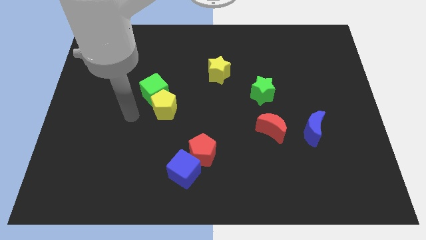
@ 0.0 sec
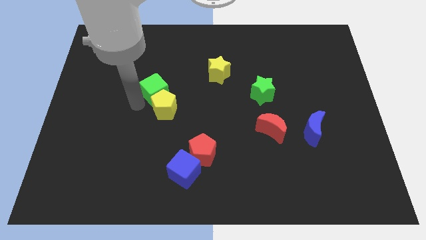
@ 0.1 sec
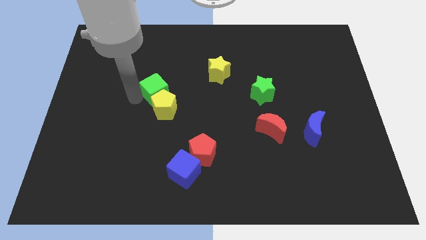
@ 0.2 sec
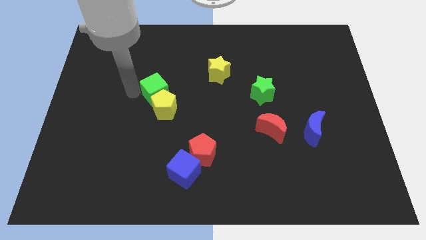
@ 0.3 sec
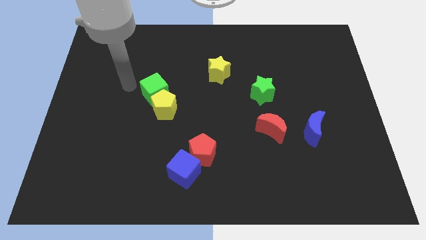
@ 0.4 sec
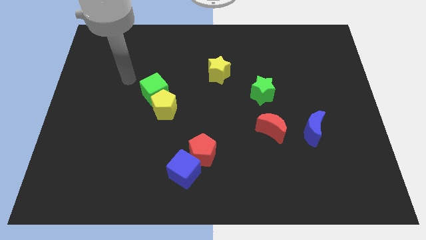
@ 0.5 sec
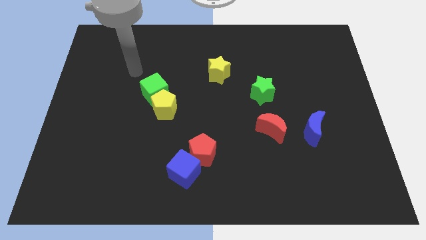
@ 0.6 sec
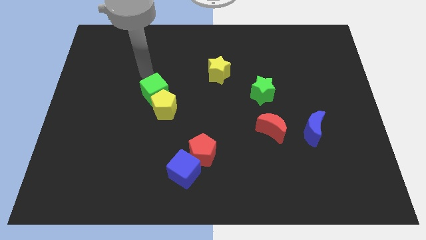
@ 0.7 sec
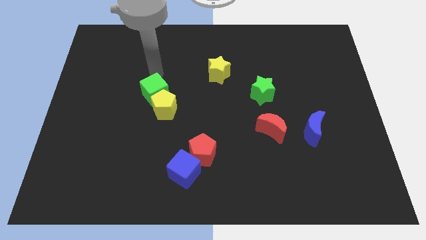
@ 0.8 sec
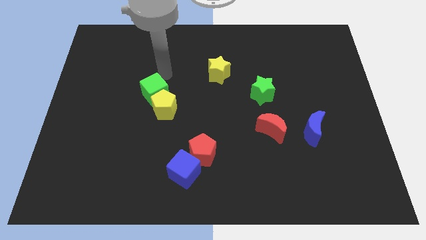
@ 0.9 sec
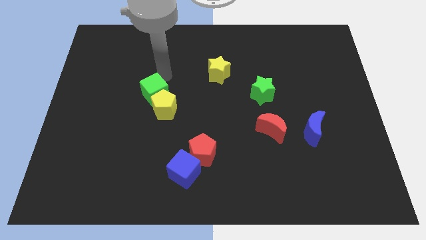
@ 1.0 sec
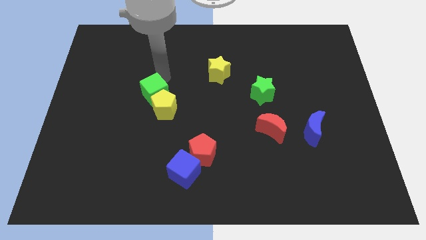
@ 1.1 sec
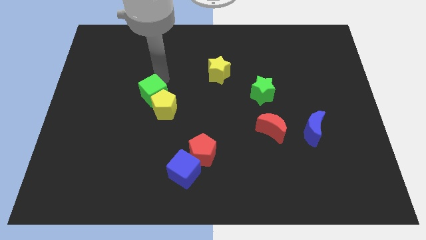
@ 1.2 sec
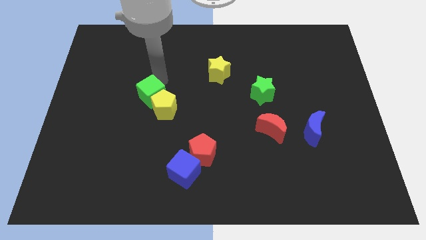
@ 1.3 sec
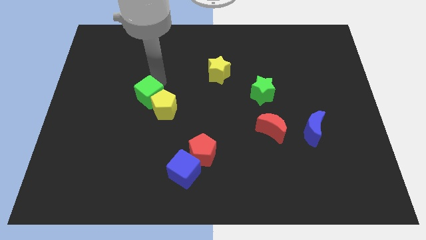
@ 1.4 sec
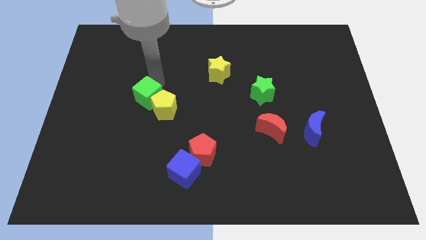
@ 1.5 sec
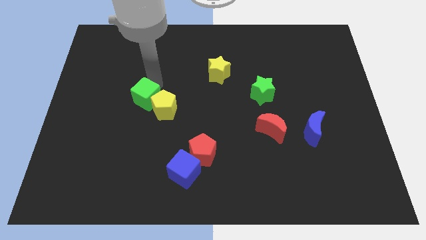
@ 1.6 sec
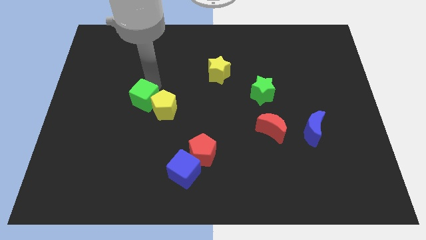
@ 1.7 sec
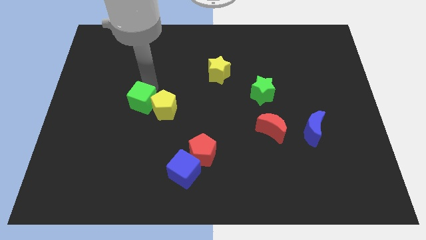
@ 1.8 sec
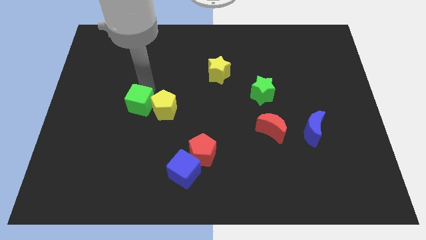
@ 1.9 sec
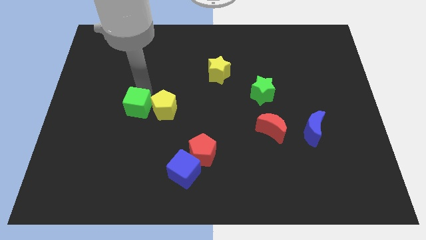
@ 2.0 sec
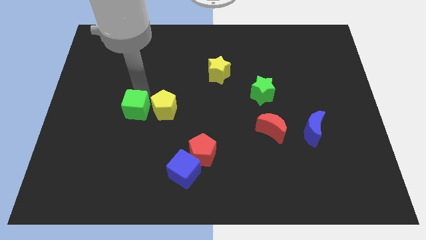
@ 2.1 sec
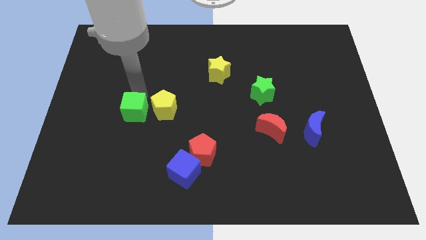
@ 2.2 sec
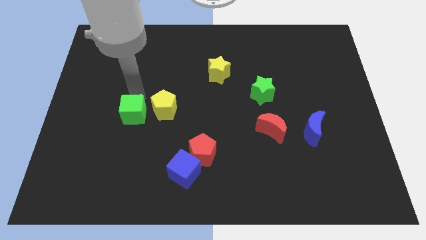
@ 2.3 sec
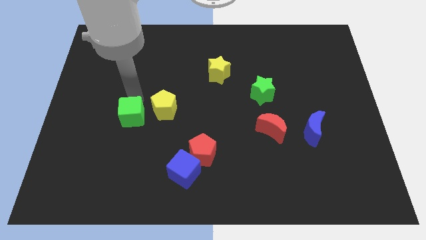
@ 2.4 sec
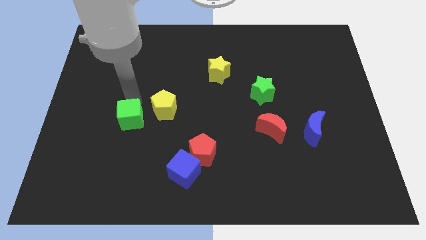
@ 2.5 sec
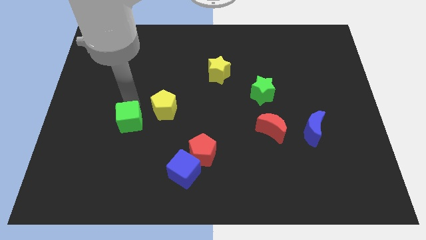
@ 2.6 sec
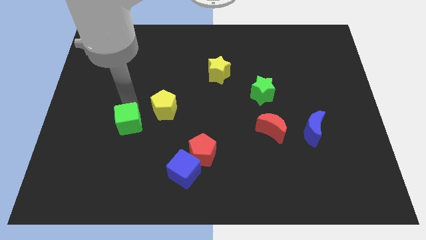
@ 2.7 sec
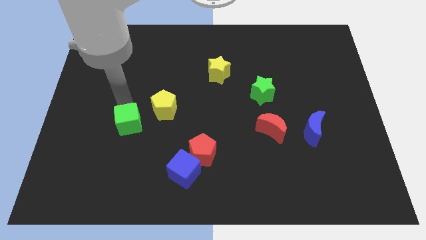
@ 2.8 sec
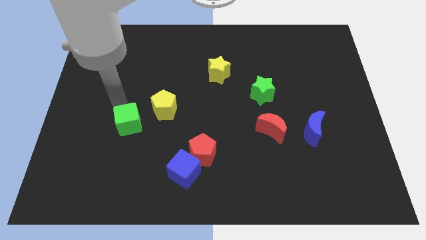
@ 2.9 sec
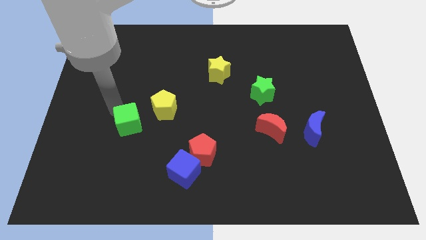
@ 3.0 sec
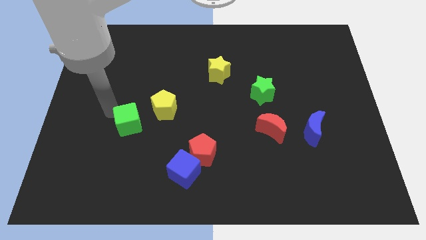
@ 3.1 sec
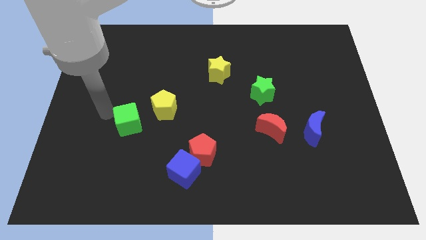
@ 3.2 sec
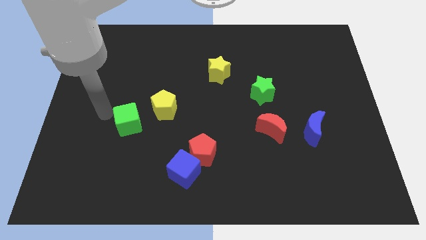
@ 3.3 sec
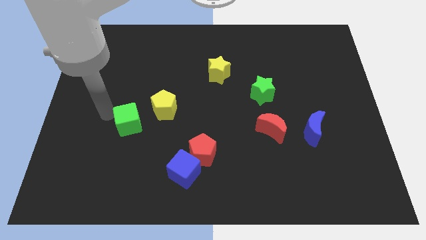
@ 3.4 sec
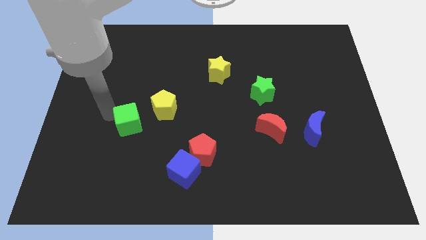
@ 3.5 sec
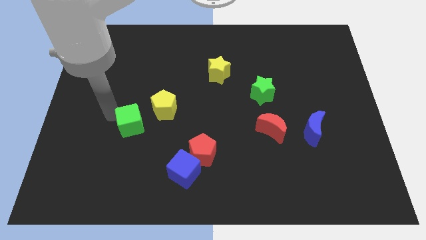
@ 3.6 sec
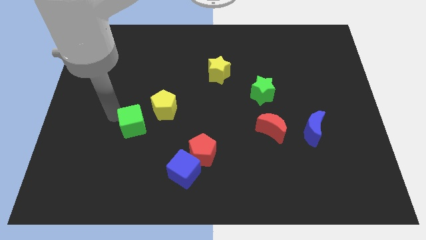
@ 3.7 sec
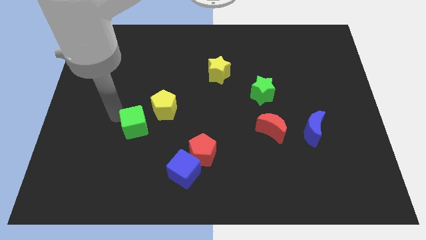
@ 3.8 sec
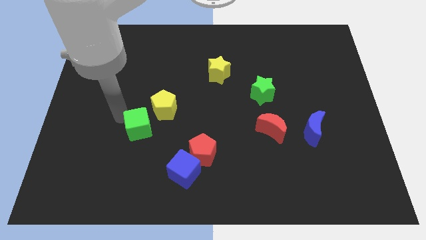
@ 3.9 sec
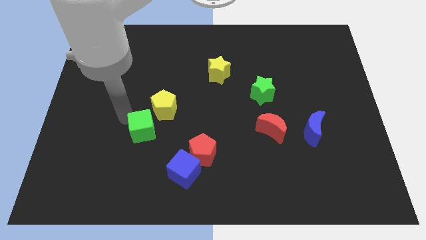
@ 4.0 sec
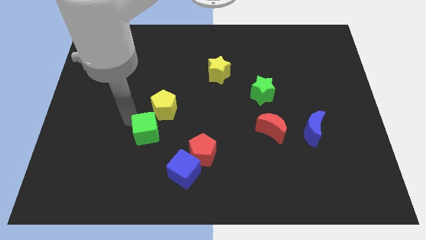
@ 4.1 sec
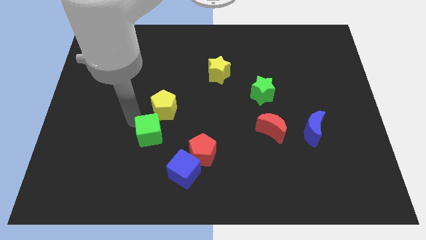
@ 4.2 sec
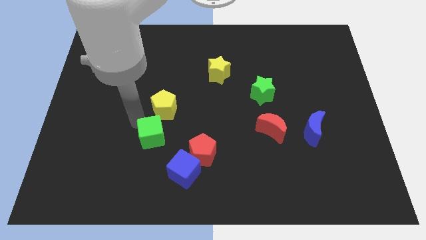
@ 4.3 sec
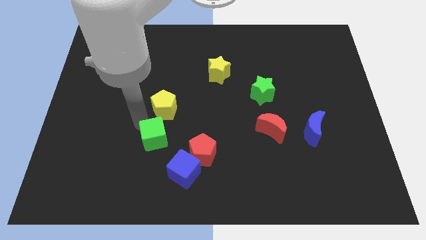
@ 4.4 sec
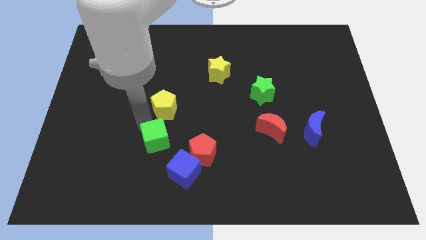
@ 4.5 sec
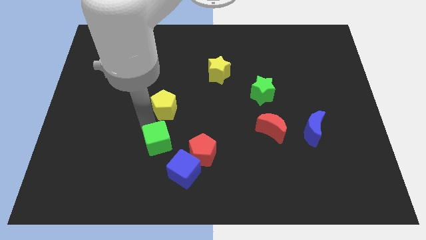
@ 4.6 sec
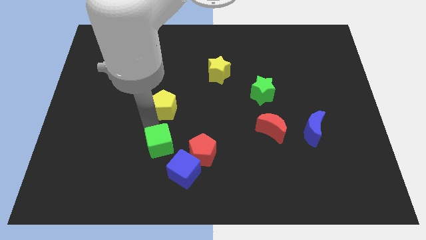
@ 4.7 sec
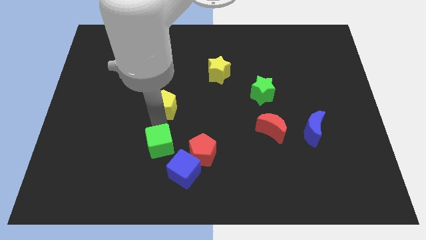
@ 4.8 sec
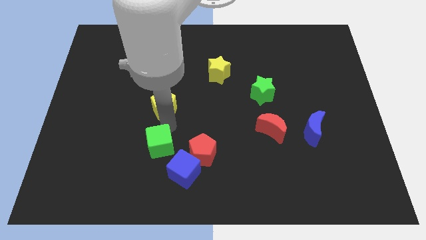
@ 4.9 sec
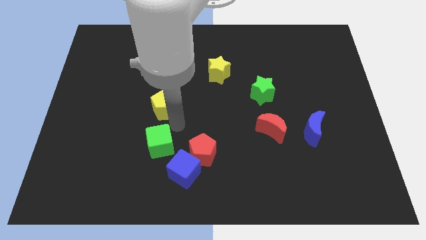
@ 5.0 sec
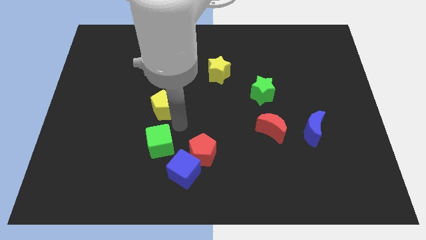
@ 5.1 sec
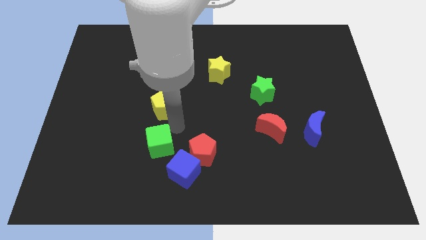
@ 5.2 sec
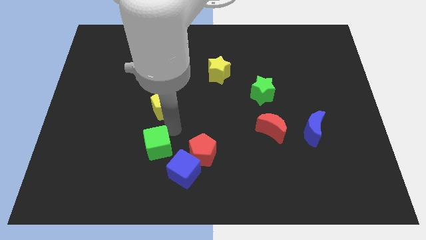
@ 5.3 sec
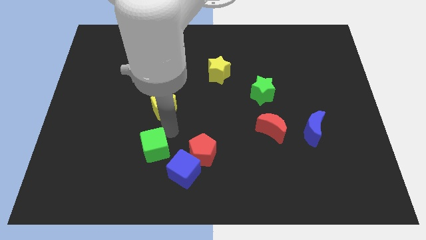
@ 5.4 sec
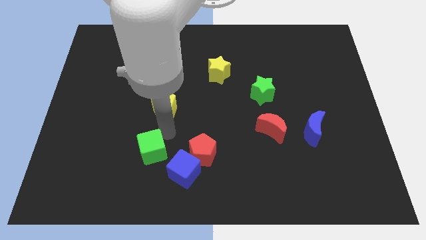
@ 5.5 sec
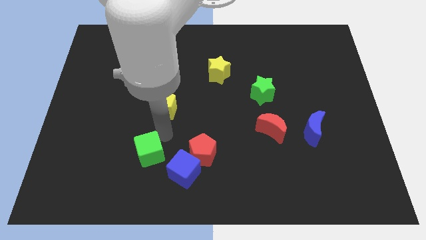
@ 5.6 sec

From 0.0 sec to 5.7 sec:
move the green cube just left of the blue cube

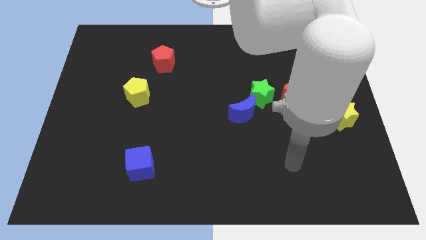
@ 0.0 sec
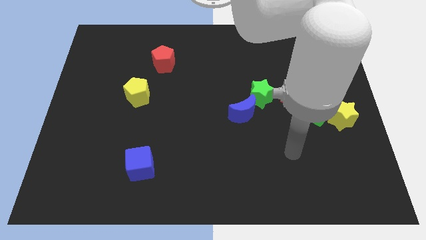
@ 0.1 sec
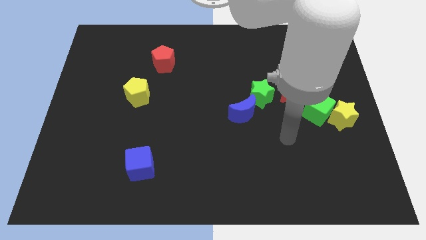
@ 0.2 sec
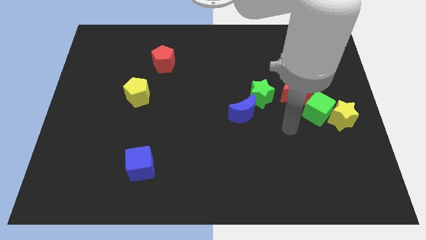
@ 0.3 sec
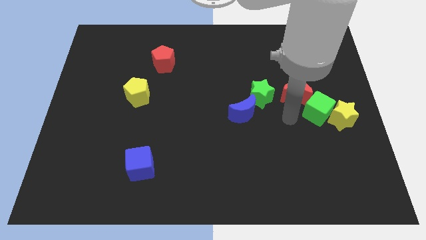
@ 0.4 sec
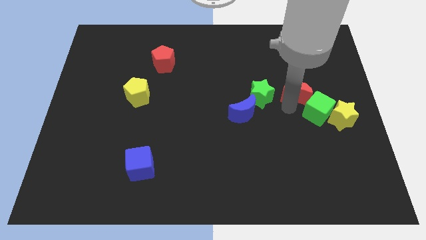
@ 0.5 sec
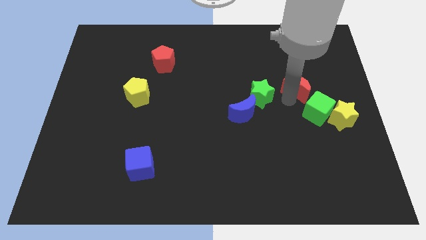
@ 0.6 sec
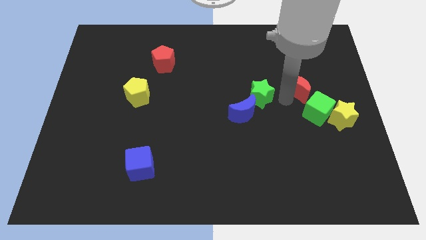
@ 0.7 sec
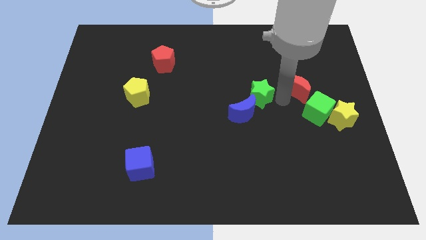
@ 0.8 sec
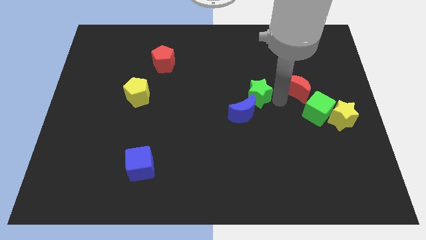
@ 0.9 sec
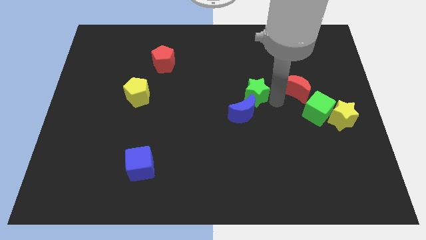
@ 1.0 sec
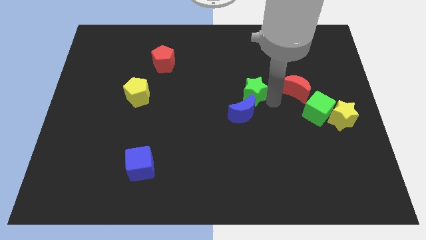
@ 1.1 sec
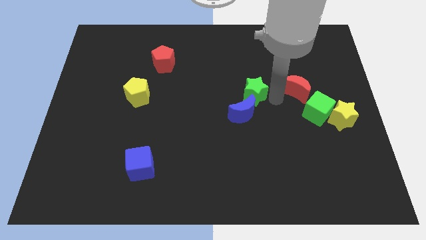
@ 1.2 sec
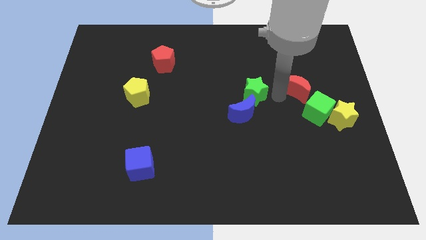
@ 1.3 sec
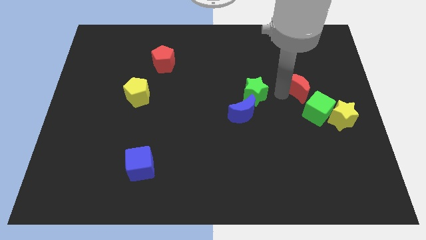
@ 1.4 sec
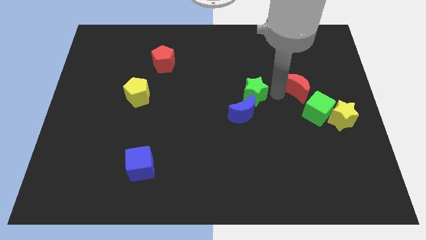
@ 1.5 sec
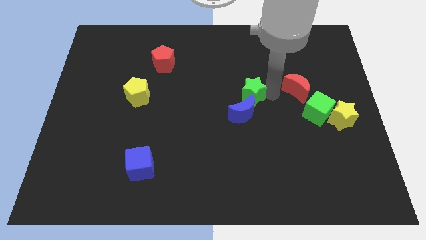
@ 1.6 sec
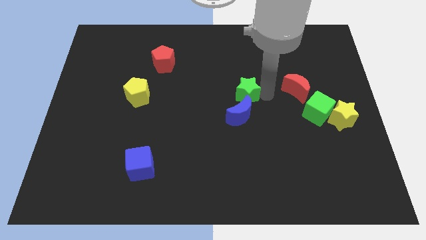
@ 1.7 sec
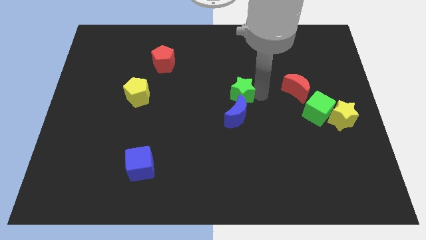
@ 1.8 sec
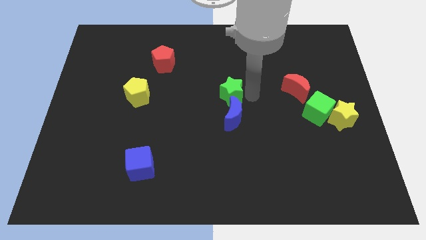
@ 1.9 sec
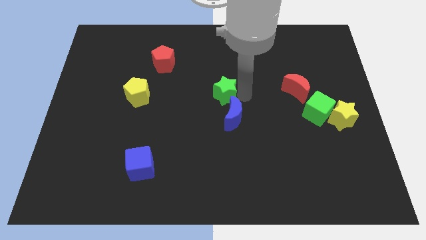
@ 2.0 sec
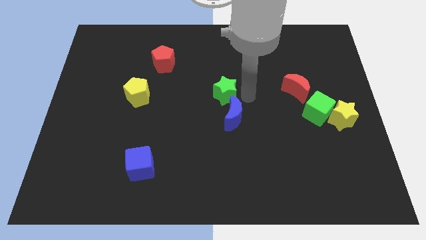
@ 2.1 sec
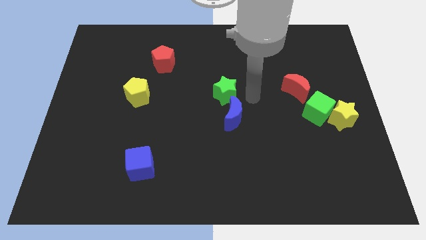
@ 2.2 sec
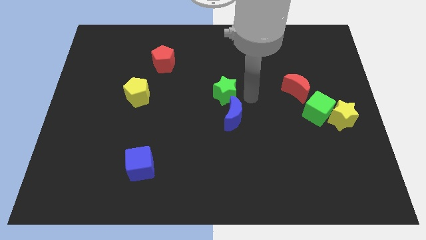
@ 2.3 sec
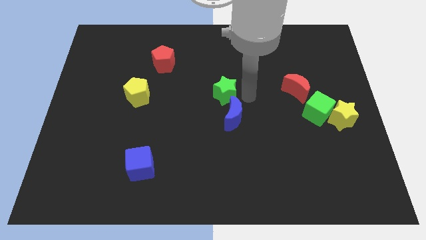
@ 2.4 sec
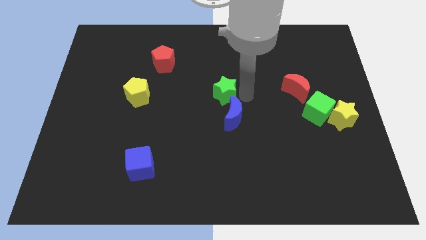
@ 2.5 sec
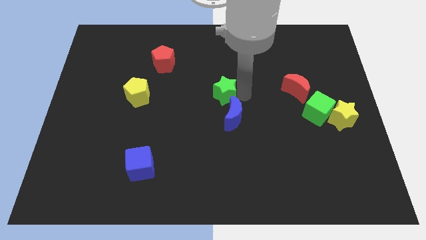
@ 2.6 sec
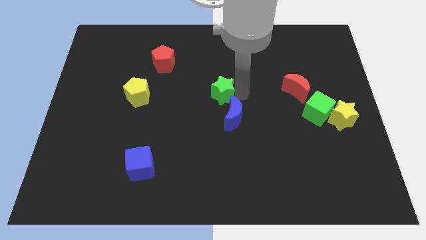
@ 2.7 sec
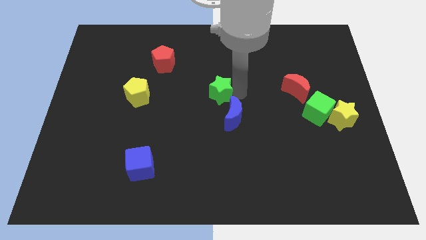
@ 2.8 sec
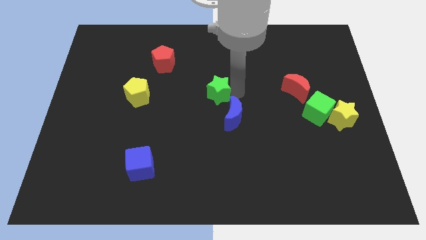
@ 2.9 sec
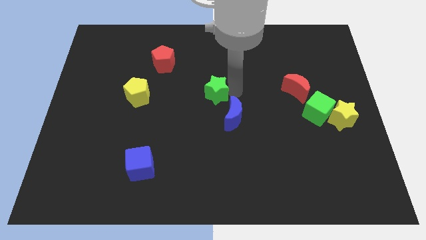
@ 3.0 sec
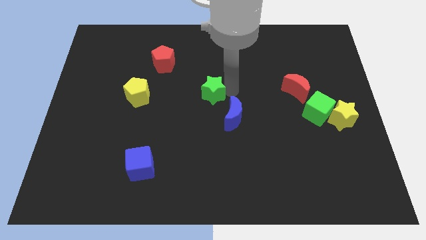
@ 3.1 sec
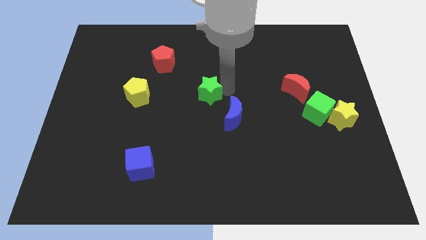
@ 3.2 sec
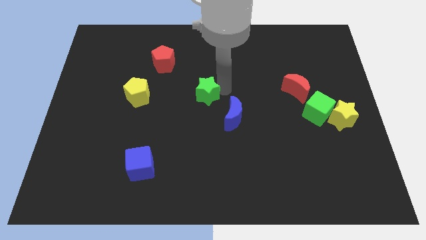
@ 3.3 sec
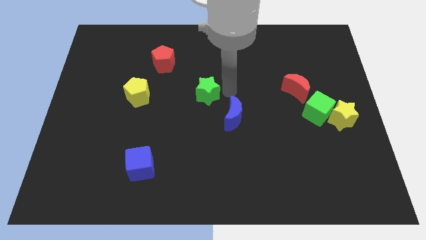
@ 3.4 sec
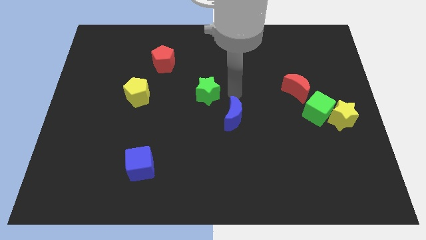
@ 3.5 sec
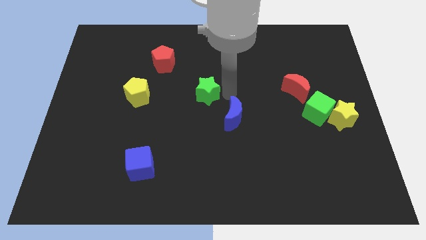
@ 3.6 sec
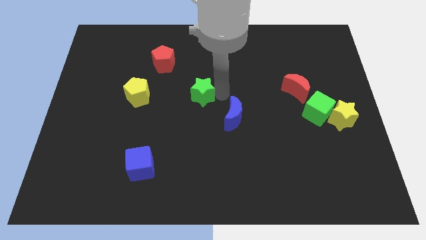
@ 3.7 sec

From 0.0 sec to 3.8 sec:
put the green star just right of the yellow pentagon
